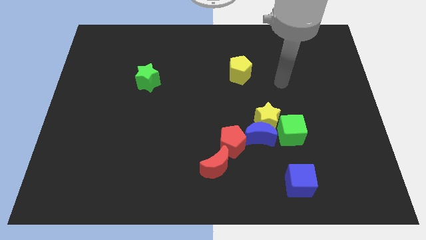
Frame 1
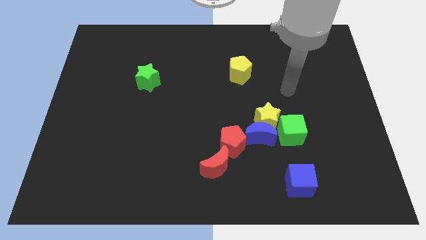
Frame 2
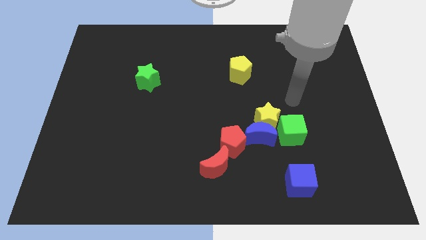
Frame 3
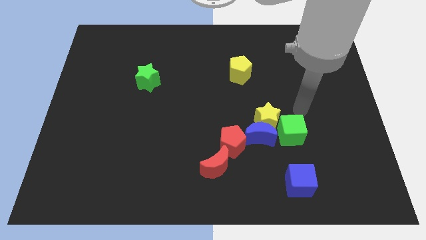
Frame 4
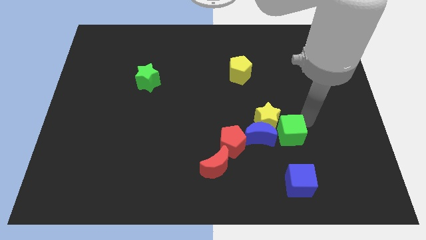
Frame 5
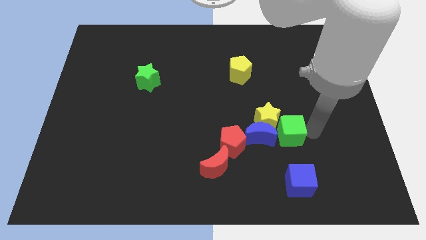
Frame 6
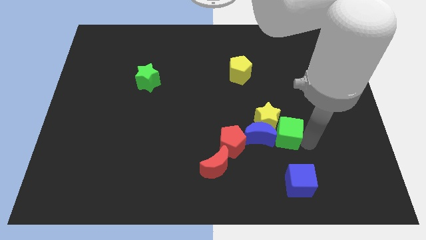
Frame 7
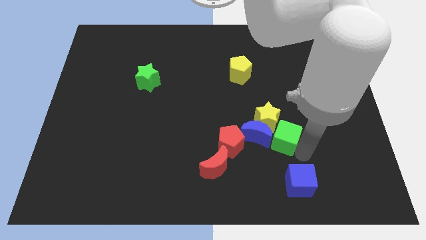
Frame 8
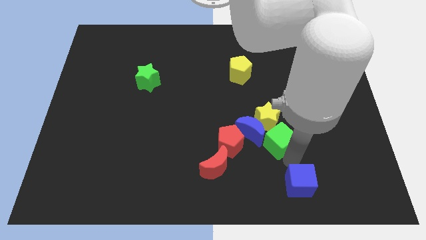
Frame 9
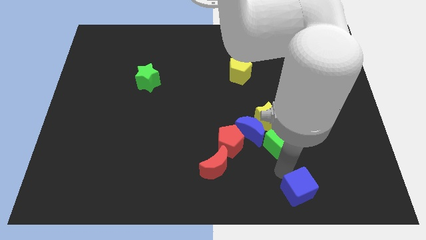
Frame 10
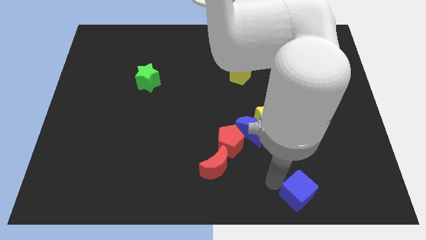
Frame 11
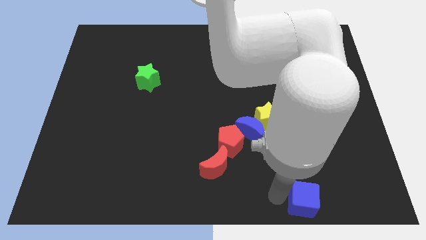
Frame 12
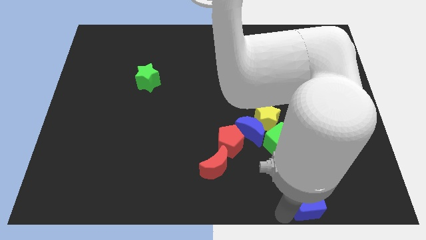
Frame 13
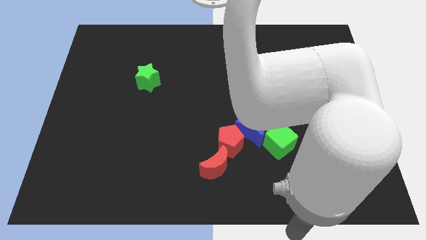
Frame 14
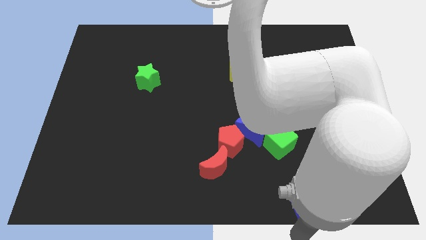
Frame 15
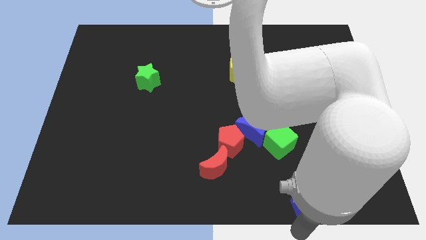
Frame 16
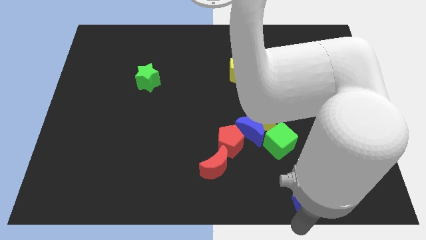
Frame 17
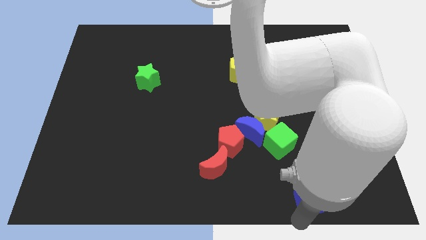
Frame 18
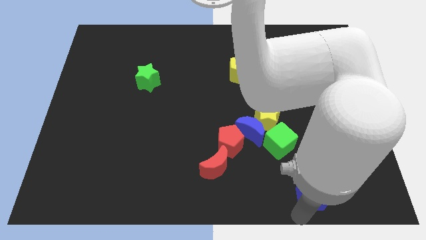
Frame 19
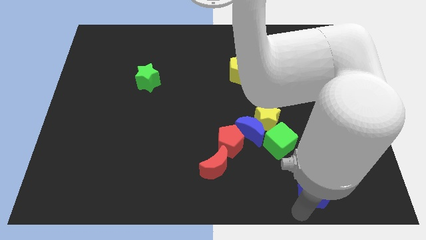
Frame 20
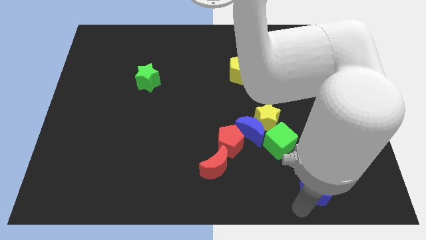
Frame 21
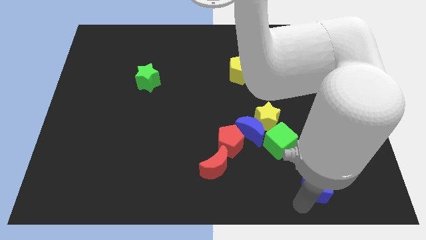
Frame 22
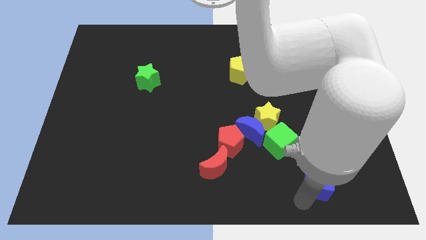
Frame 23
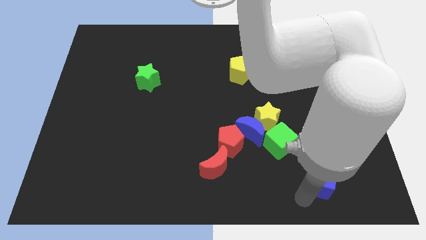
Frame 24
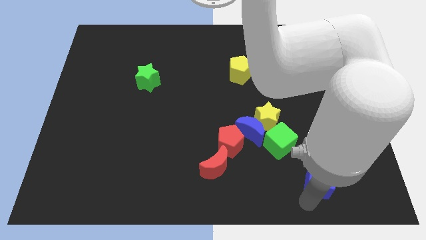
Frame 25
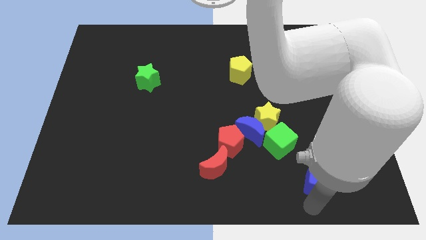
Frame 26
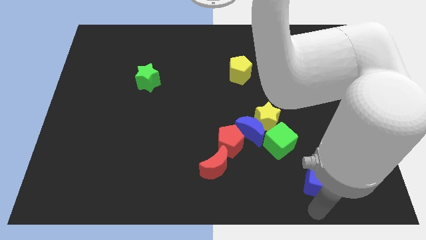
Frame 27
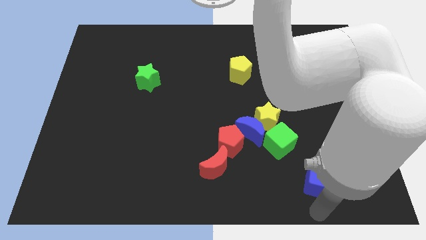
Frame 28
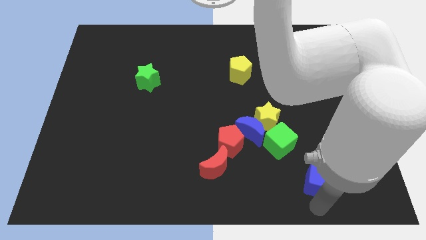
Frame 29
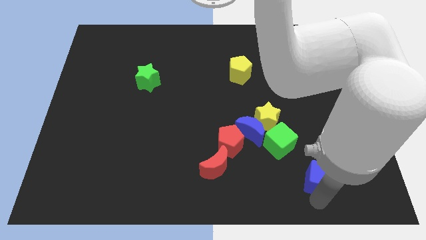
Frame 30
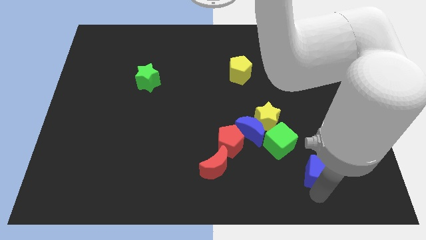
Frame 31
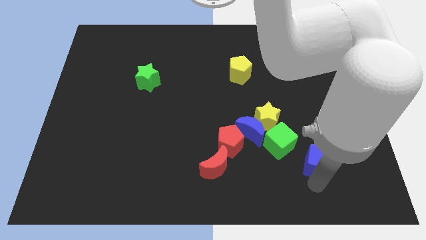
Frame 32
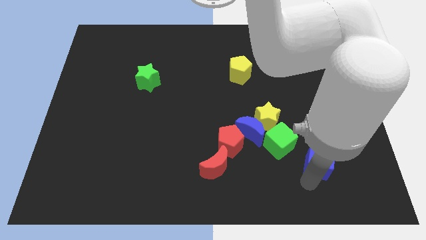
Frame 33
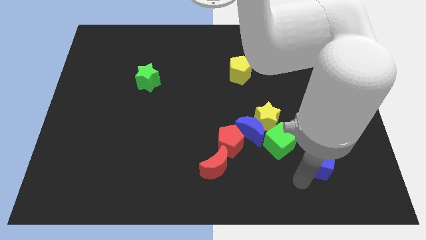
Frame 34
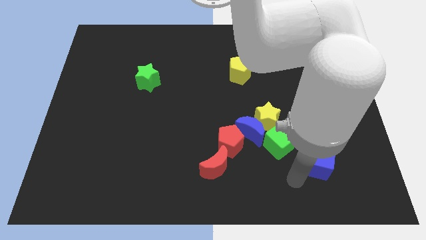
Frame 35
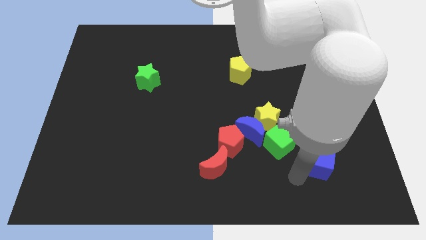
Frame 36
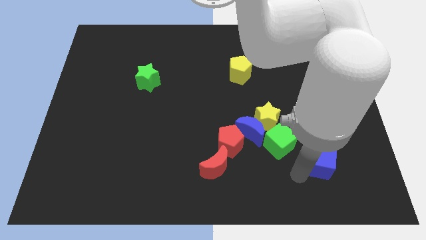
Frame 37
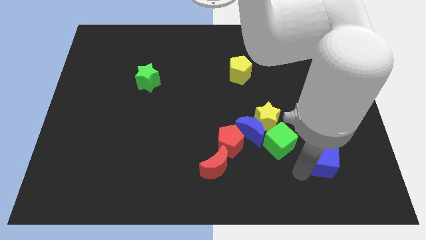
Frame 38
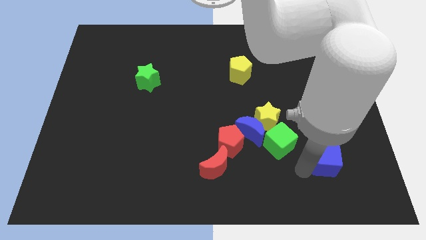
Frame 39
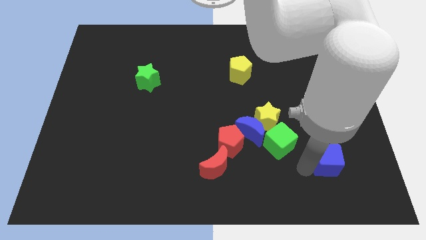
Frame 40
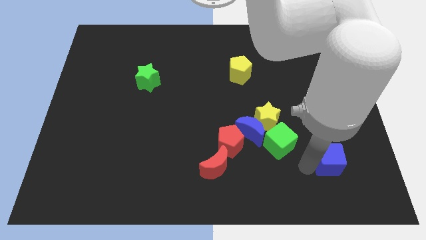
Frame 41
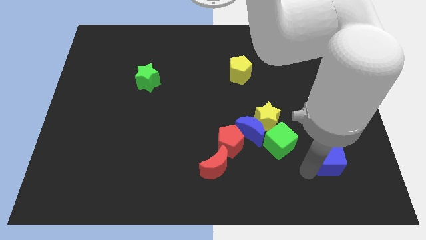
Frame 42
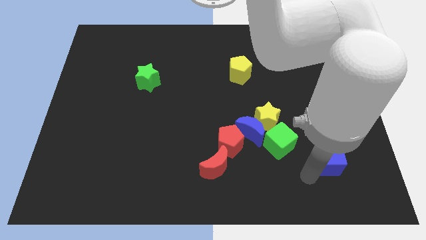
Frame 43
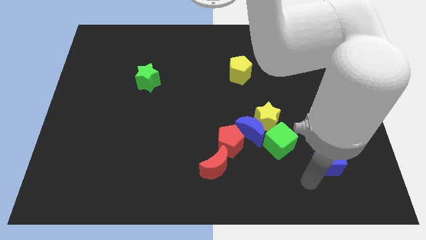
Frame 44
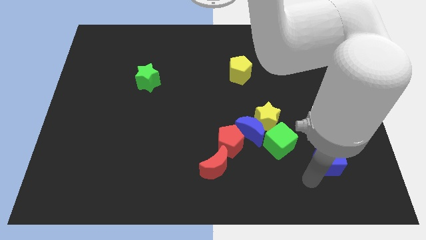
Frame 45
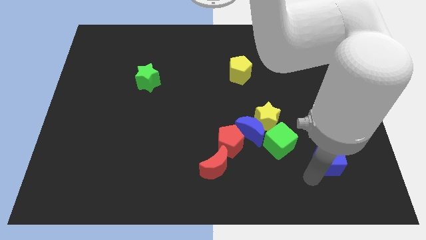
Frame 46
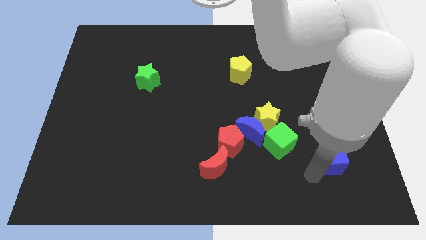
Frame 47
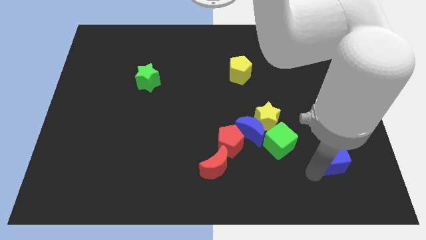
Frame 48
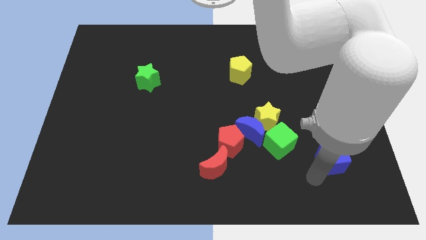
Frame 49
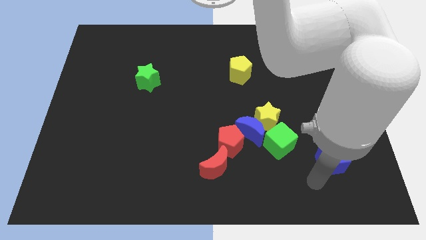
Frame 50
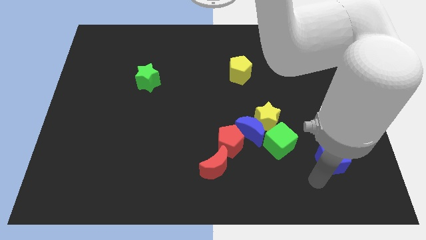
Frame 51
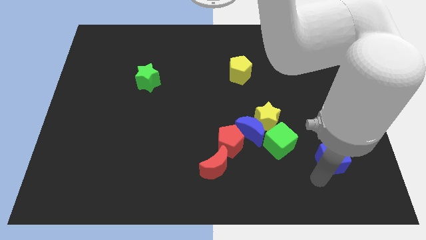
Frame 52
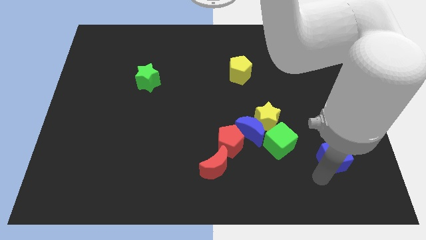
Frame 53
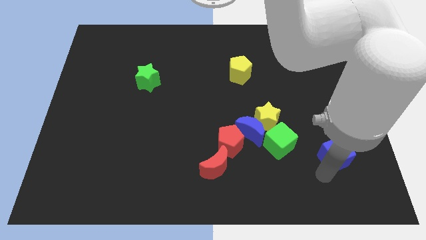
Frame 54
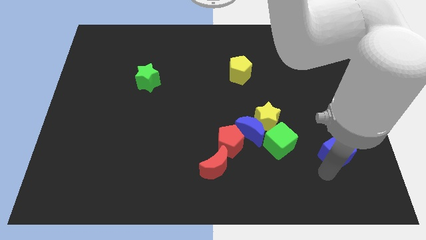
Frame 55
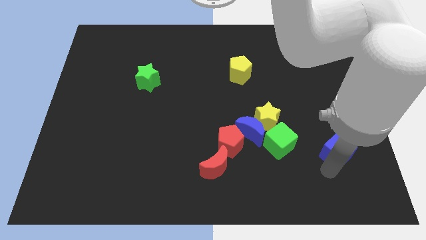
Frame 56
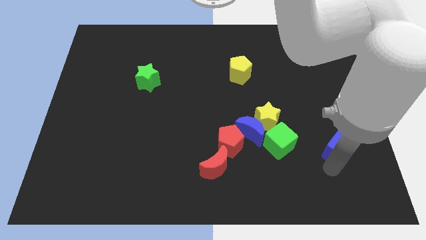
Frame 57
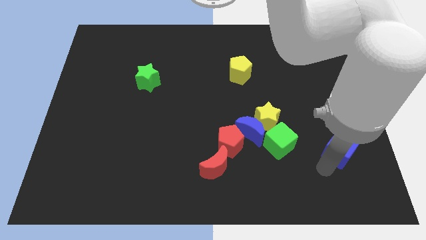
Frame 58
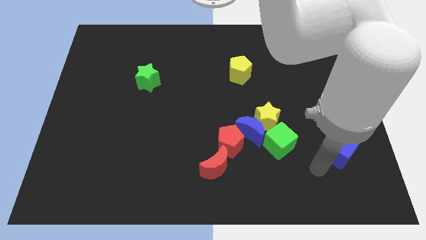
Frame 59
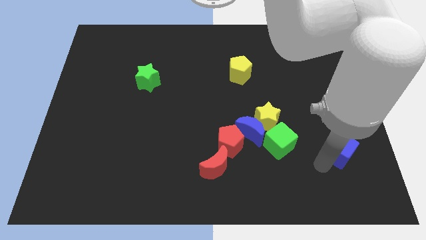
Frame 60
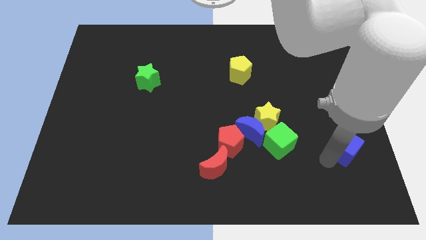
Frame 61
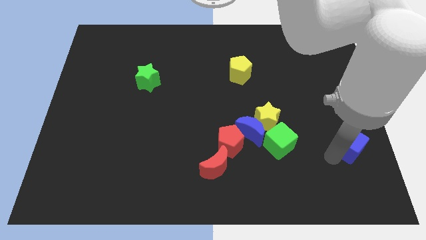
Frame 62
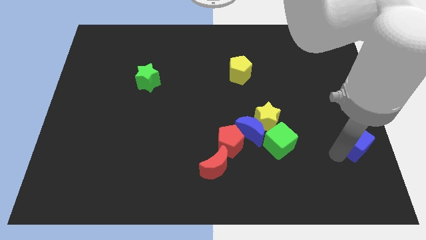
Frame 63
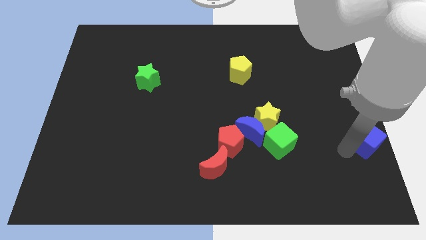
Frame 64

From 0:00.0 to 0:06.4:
push the blue cube to the center right

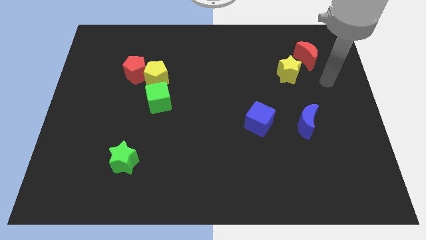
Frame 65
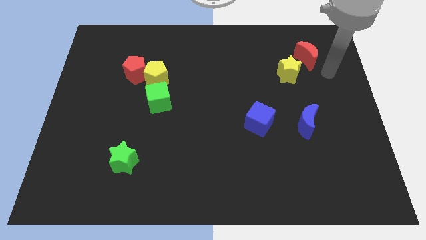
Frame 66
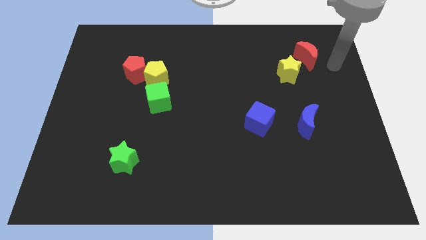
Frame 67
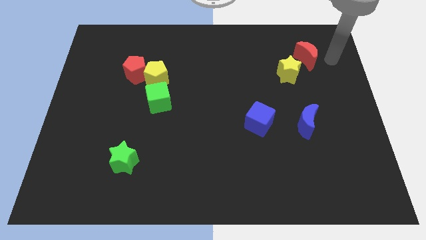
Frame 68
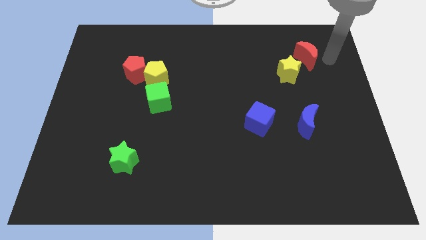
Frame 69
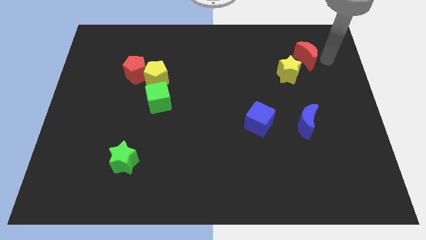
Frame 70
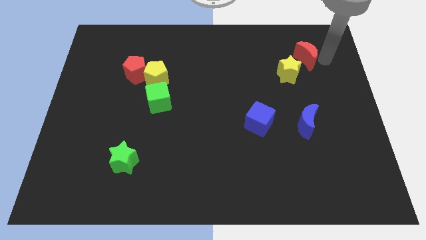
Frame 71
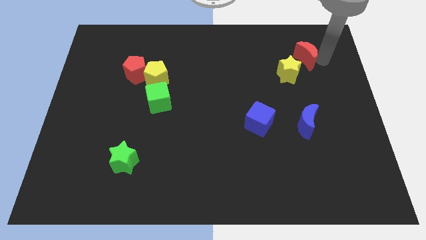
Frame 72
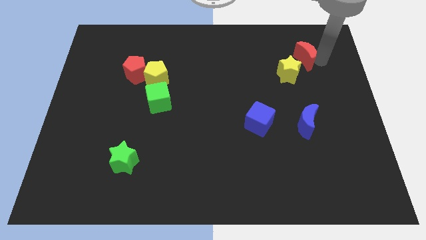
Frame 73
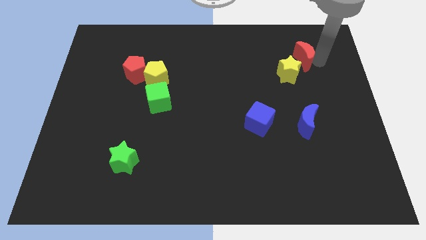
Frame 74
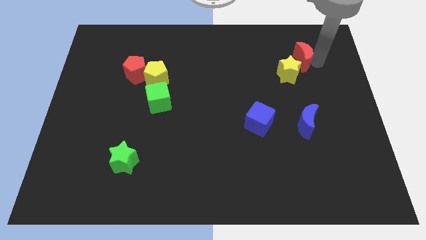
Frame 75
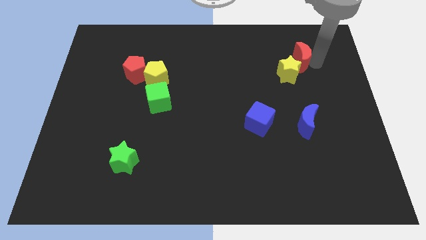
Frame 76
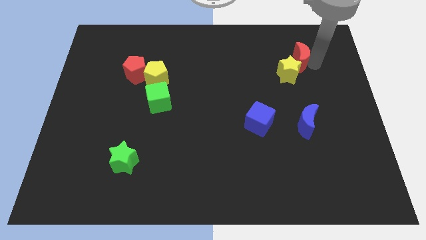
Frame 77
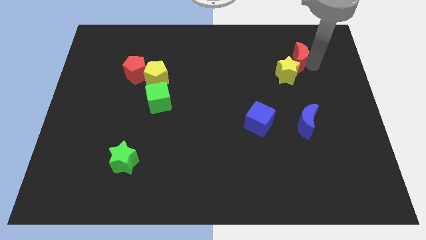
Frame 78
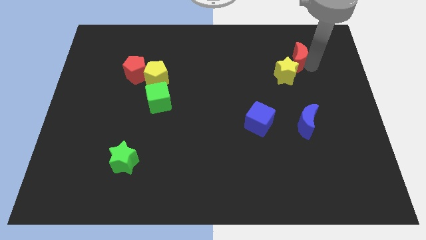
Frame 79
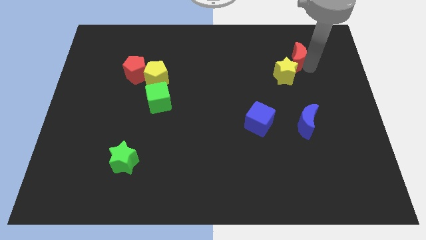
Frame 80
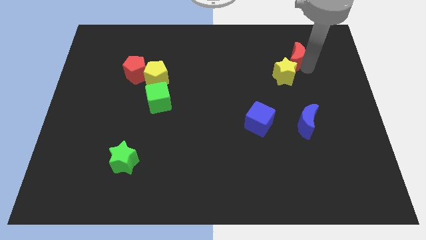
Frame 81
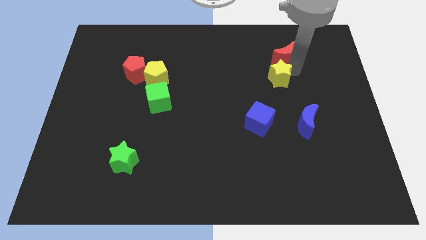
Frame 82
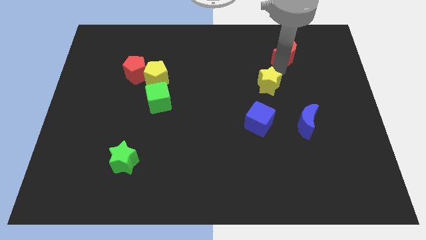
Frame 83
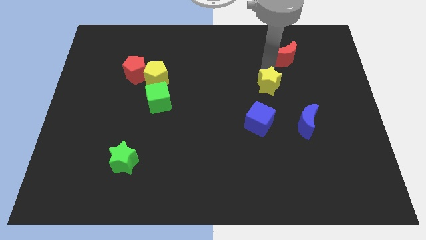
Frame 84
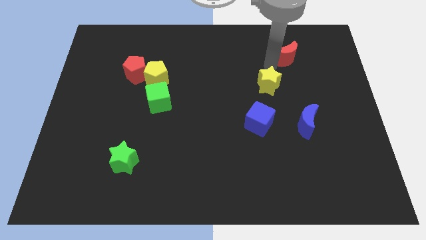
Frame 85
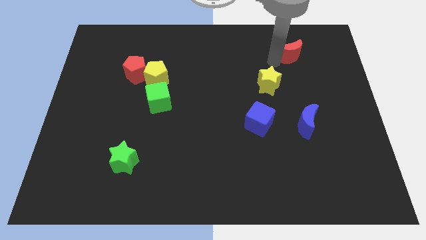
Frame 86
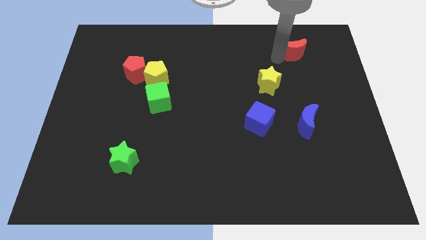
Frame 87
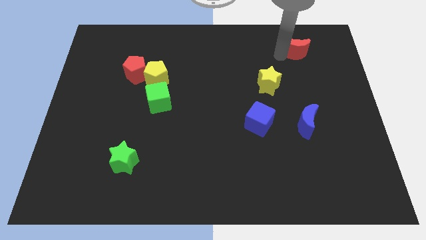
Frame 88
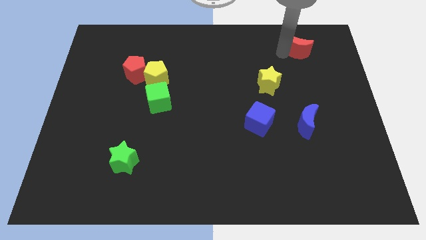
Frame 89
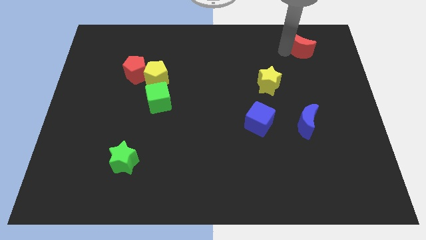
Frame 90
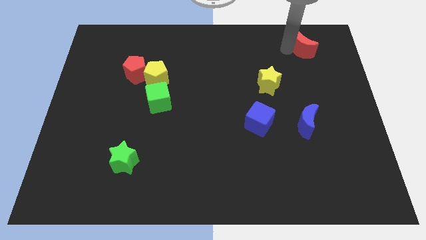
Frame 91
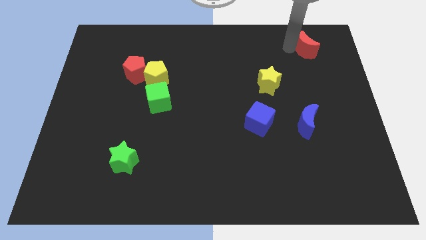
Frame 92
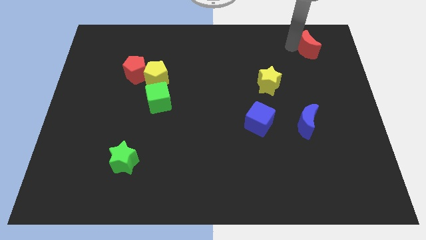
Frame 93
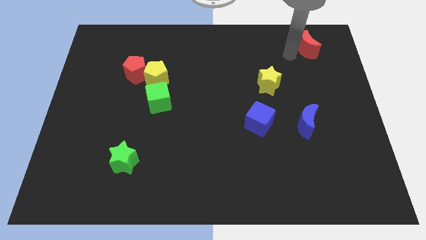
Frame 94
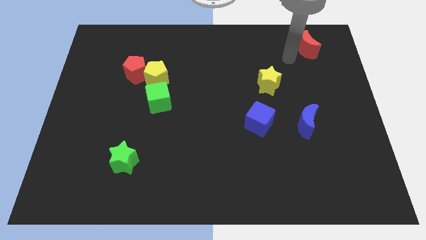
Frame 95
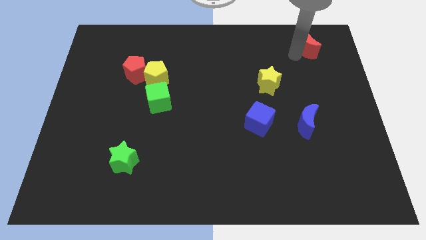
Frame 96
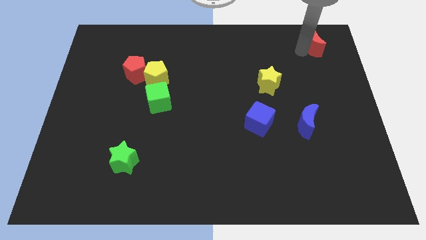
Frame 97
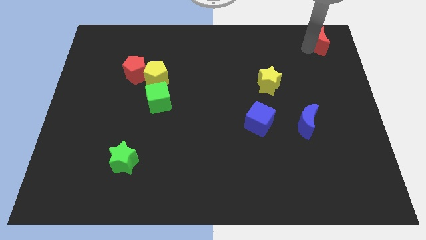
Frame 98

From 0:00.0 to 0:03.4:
move the red moon to the top right corner
